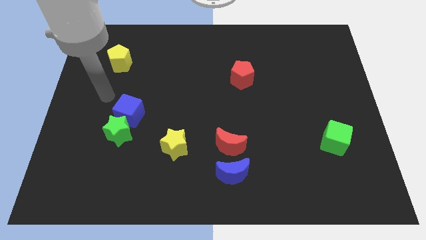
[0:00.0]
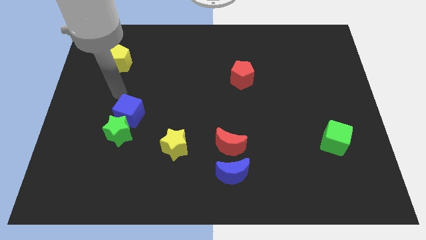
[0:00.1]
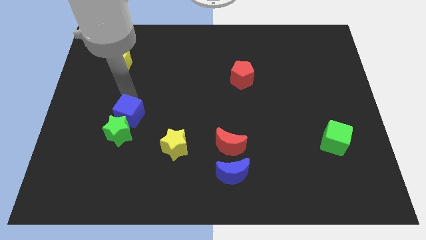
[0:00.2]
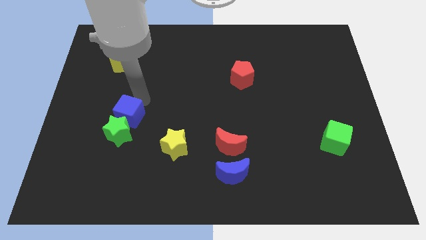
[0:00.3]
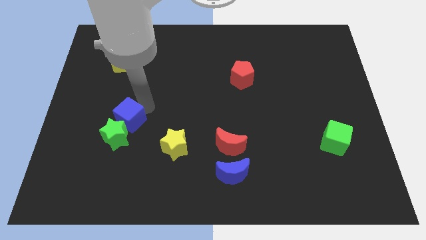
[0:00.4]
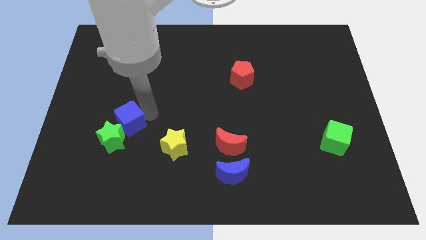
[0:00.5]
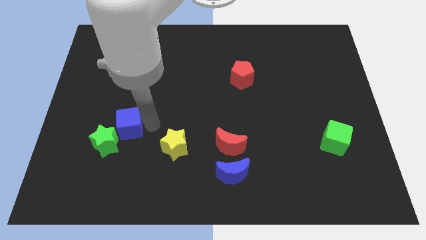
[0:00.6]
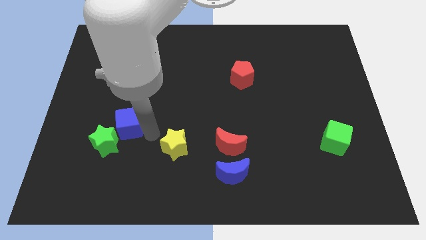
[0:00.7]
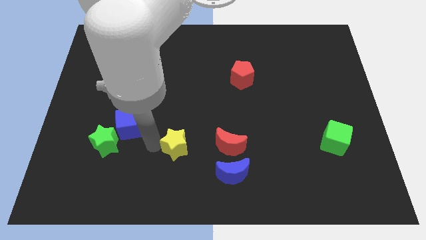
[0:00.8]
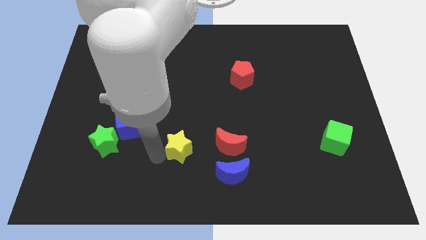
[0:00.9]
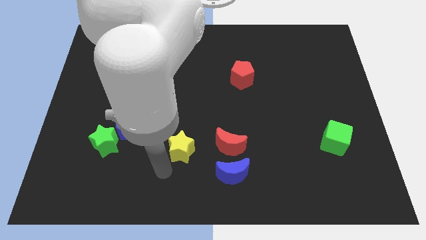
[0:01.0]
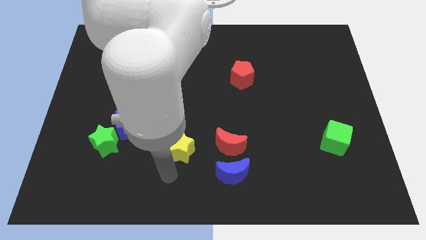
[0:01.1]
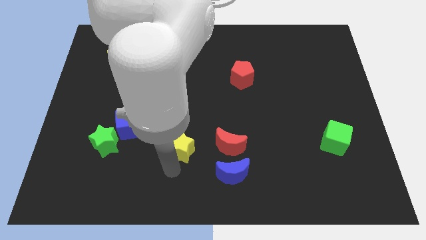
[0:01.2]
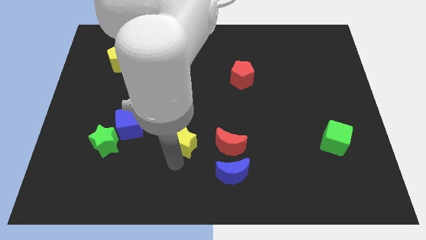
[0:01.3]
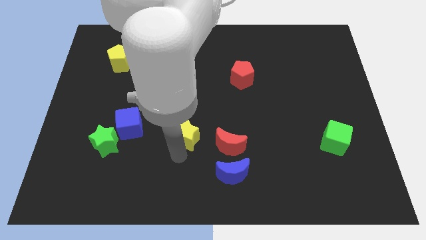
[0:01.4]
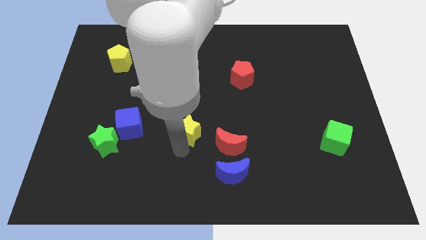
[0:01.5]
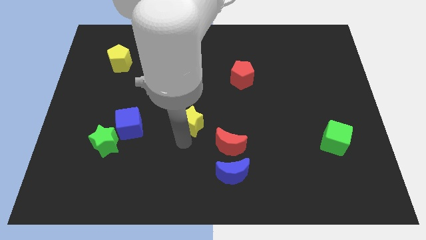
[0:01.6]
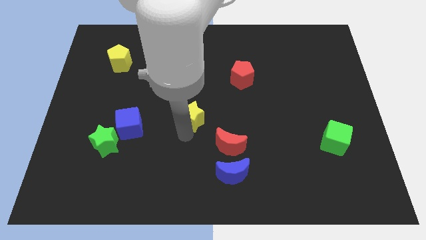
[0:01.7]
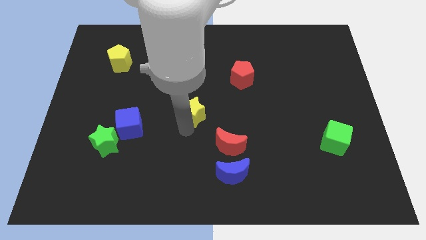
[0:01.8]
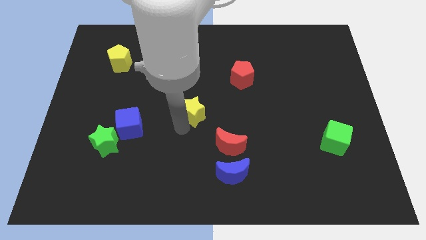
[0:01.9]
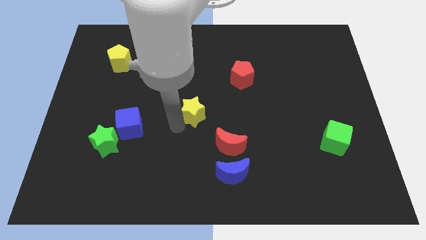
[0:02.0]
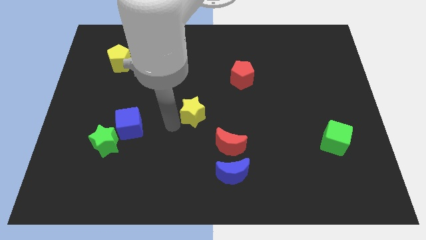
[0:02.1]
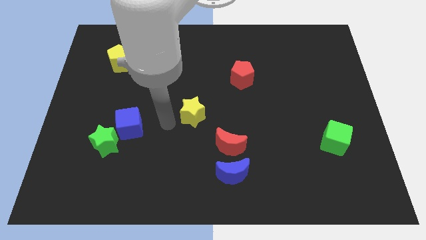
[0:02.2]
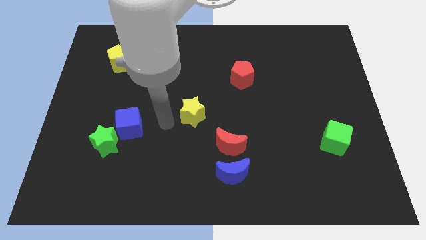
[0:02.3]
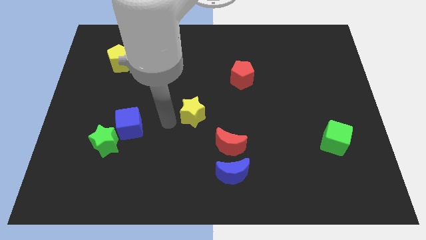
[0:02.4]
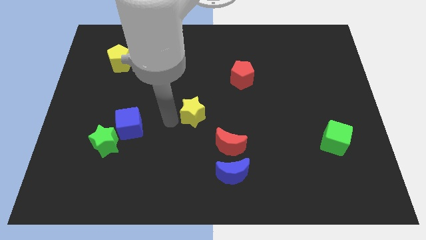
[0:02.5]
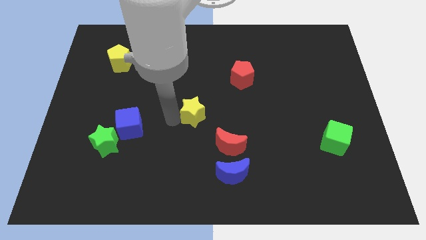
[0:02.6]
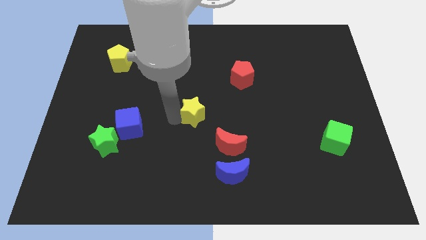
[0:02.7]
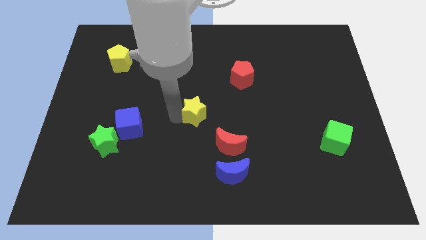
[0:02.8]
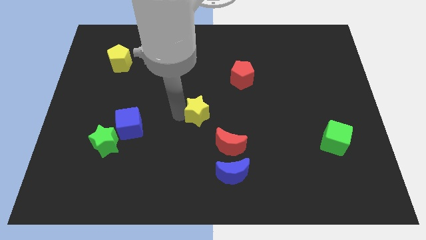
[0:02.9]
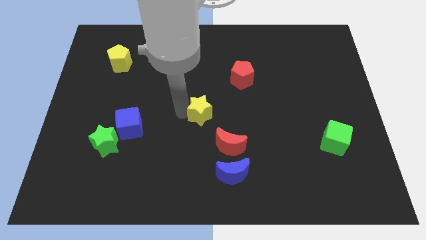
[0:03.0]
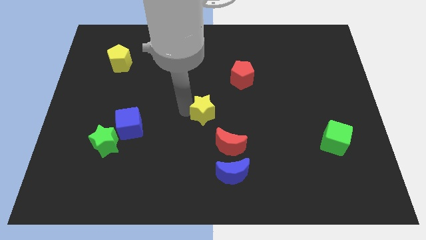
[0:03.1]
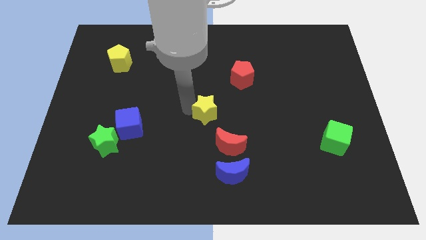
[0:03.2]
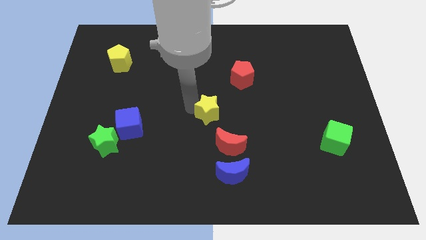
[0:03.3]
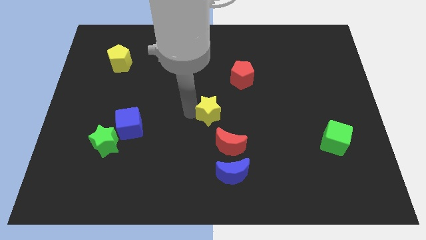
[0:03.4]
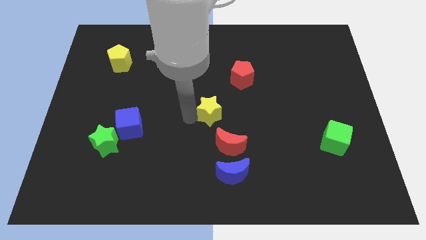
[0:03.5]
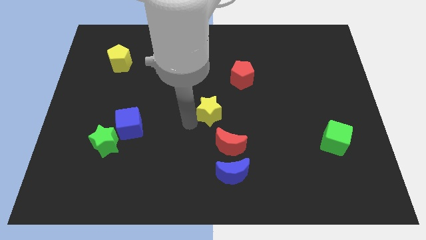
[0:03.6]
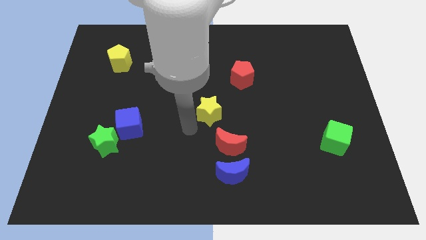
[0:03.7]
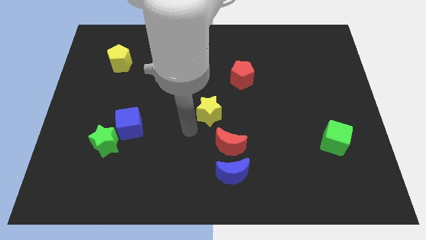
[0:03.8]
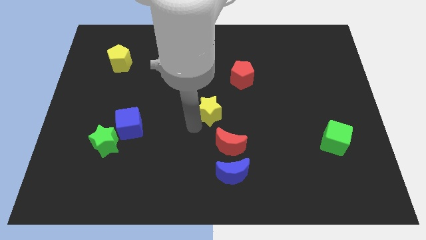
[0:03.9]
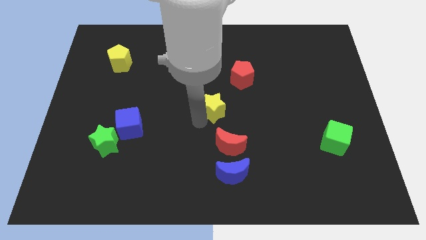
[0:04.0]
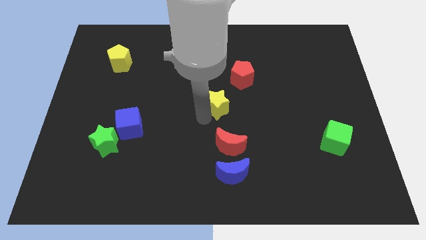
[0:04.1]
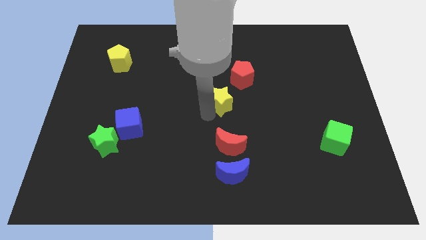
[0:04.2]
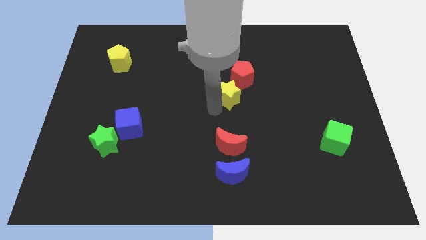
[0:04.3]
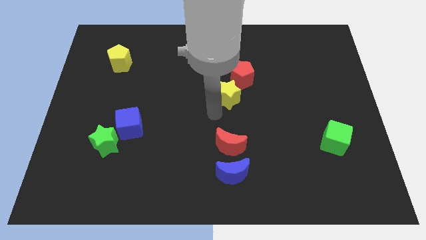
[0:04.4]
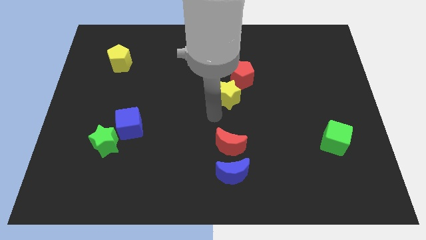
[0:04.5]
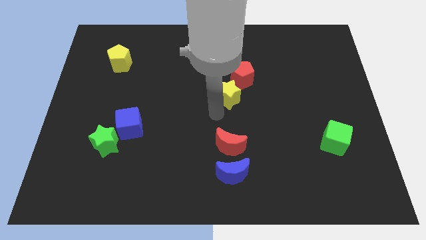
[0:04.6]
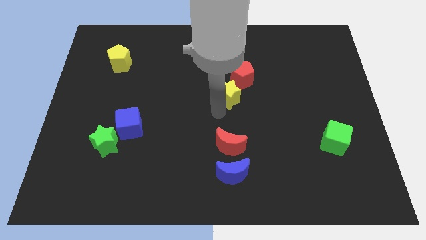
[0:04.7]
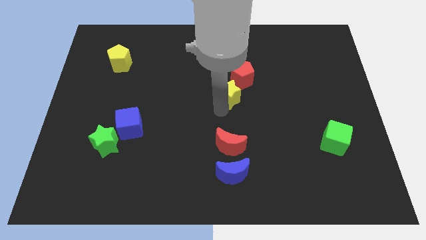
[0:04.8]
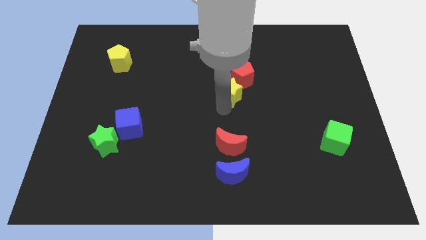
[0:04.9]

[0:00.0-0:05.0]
slide the yellow star close to the red pentagon

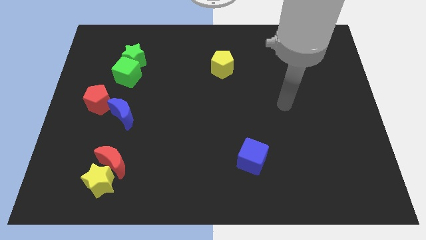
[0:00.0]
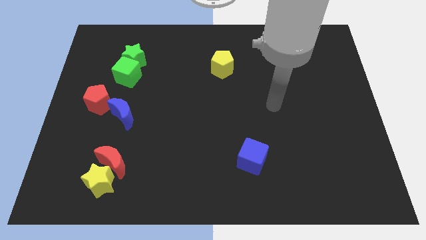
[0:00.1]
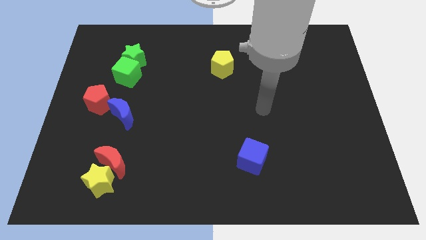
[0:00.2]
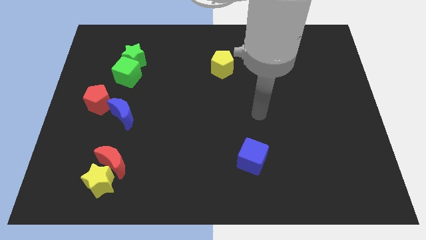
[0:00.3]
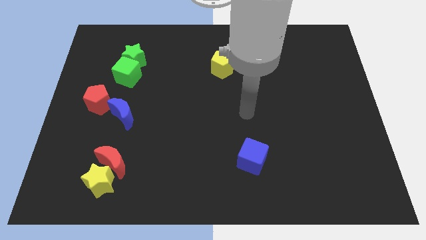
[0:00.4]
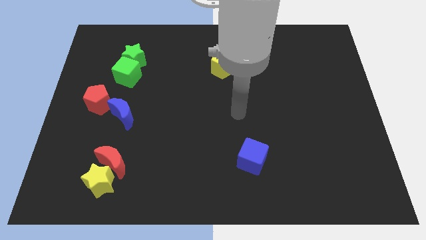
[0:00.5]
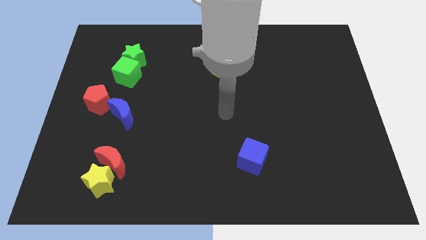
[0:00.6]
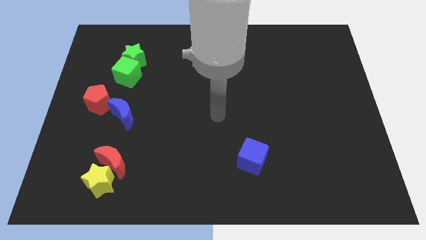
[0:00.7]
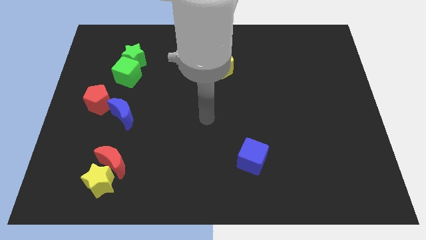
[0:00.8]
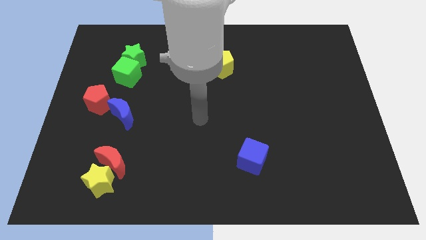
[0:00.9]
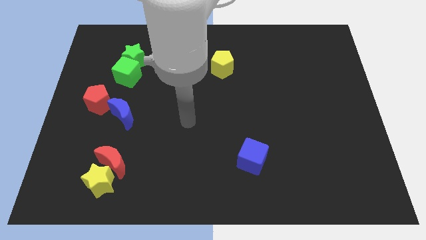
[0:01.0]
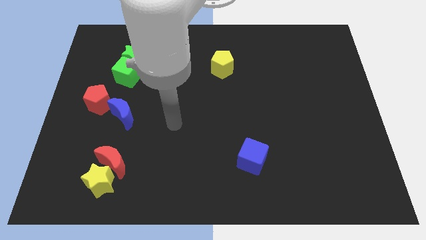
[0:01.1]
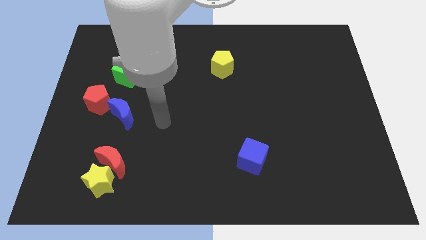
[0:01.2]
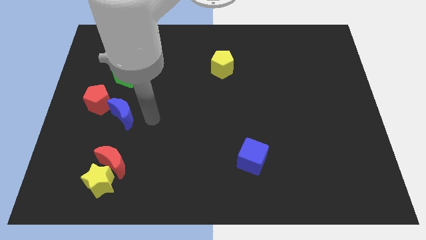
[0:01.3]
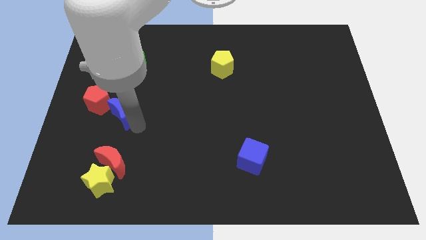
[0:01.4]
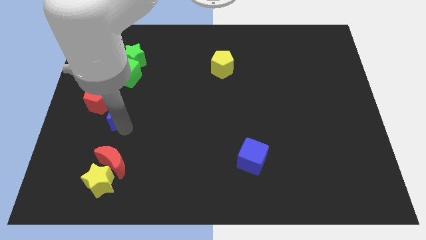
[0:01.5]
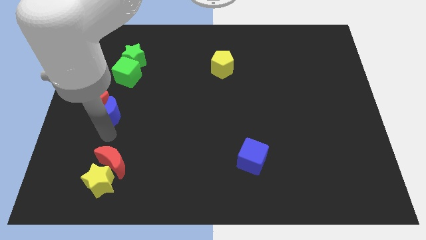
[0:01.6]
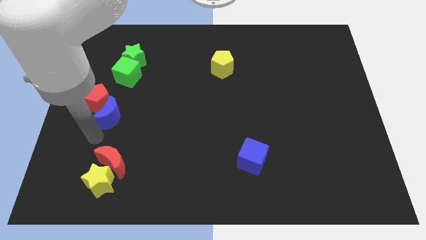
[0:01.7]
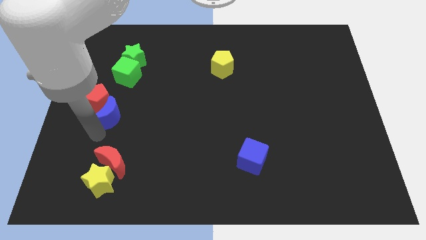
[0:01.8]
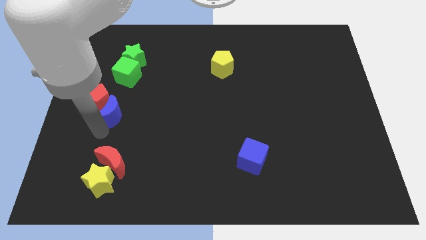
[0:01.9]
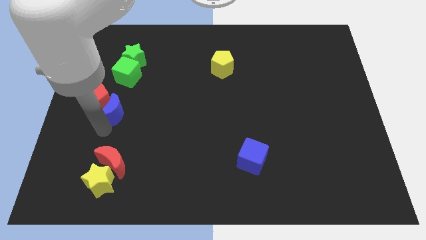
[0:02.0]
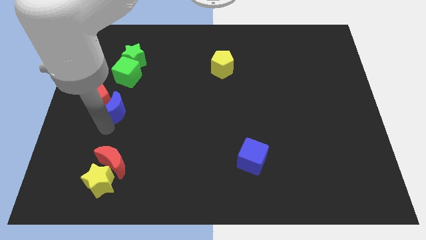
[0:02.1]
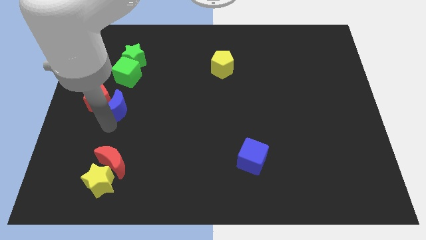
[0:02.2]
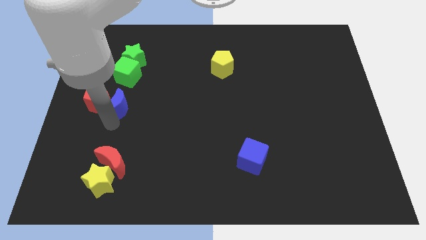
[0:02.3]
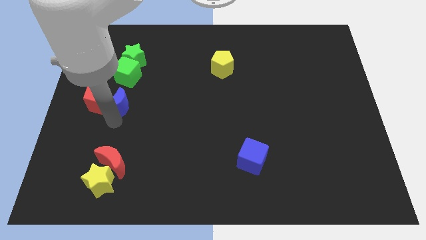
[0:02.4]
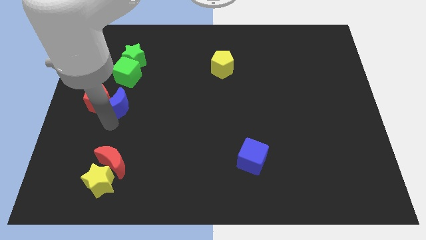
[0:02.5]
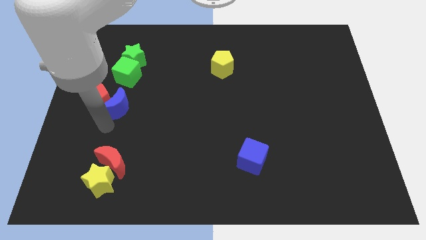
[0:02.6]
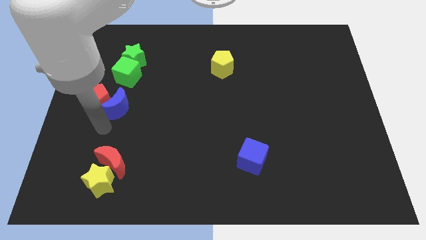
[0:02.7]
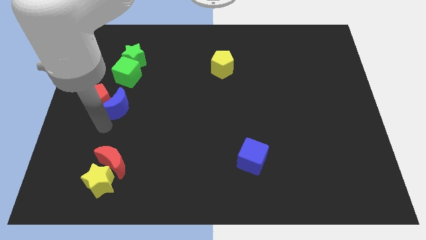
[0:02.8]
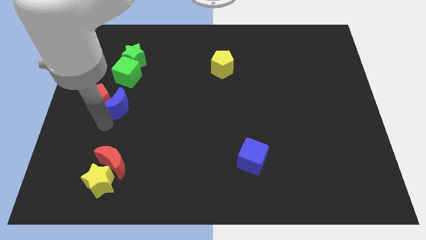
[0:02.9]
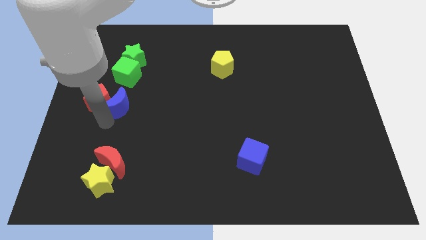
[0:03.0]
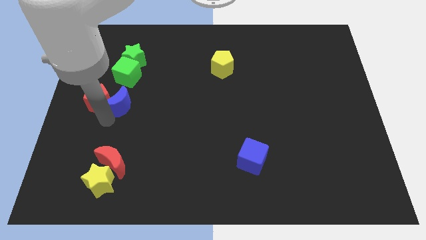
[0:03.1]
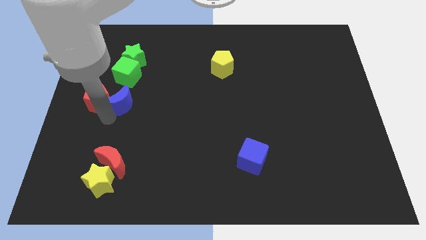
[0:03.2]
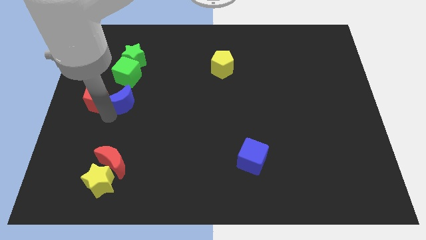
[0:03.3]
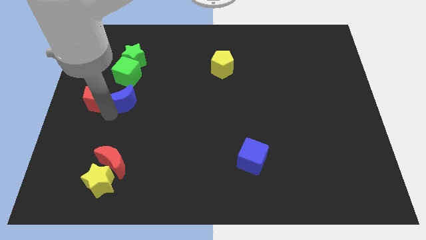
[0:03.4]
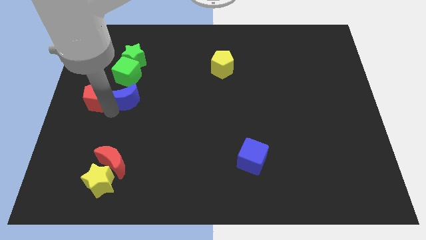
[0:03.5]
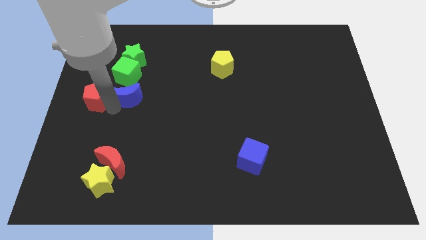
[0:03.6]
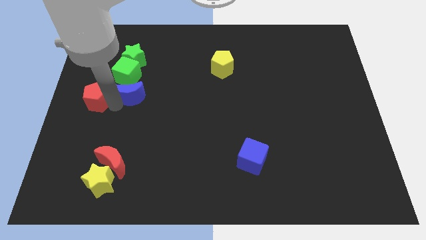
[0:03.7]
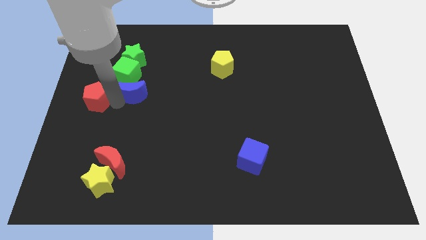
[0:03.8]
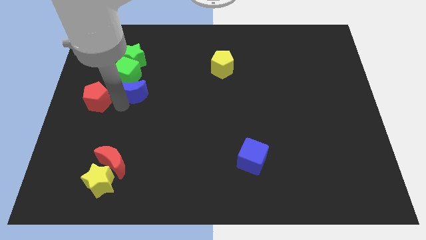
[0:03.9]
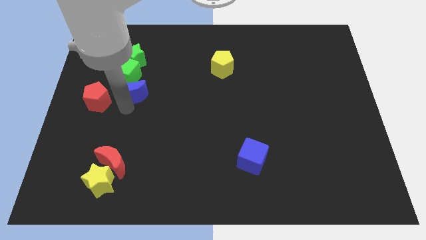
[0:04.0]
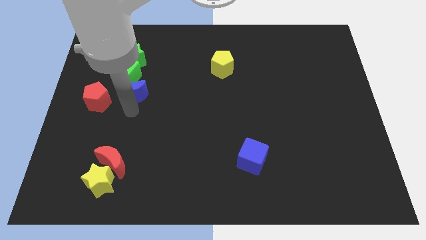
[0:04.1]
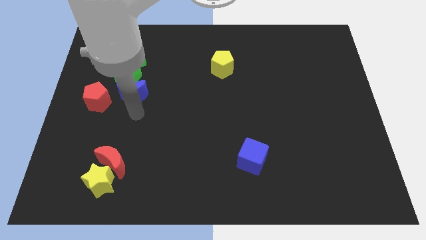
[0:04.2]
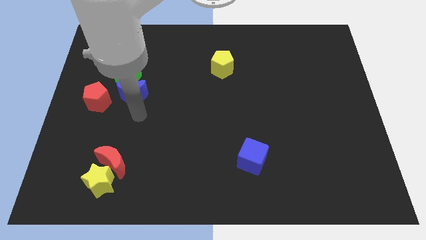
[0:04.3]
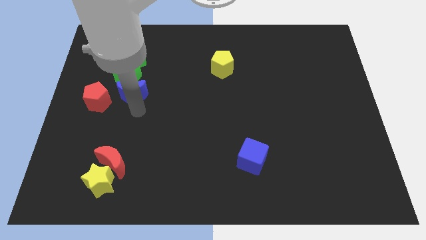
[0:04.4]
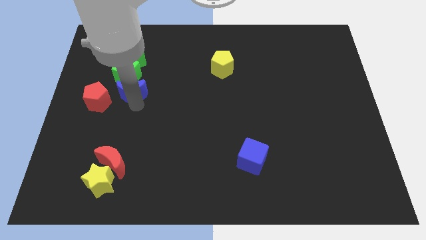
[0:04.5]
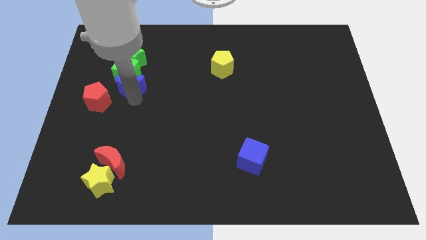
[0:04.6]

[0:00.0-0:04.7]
move the blue moon to the green cube
